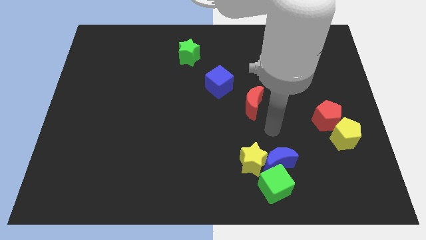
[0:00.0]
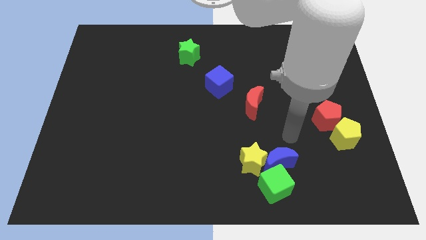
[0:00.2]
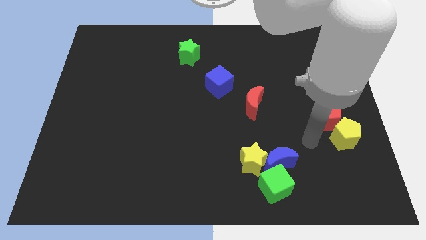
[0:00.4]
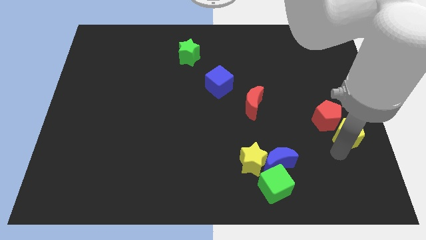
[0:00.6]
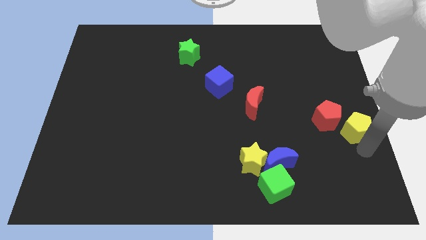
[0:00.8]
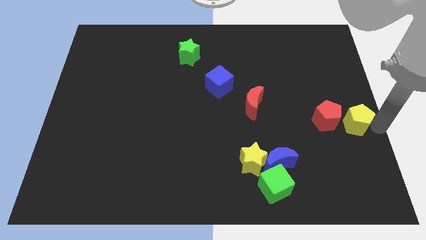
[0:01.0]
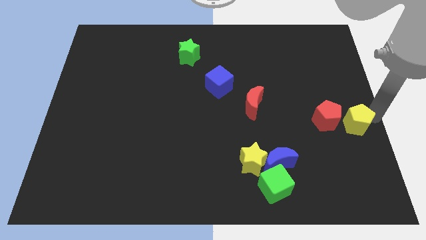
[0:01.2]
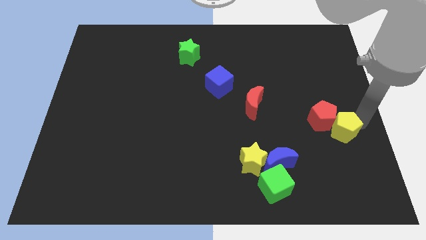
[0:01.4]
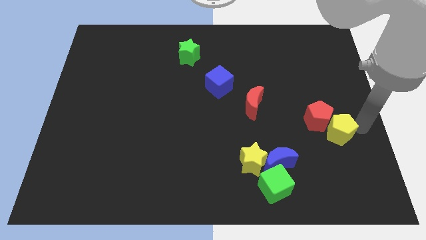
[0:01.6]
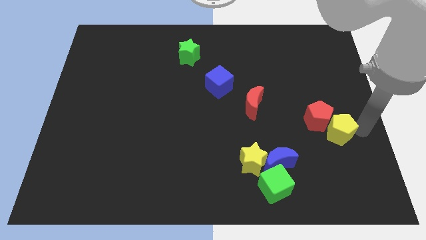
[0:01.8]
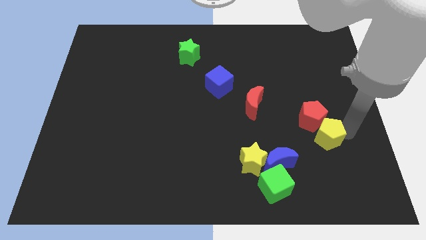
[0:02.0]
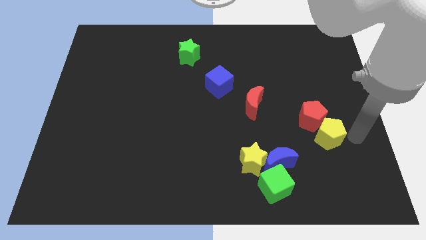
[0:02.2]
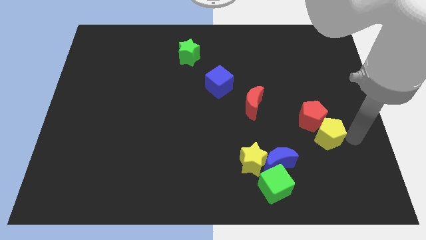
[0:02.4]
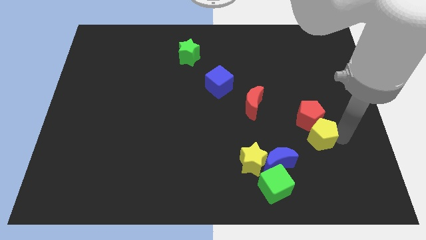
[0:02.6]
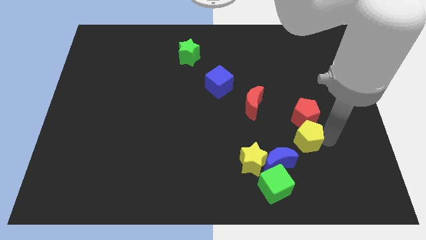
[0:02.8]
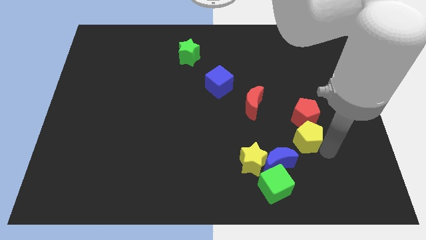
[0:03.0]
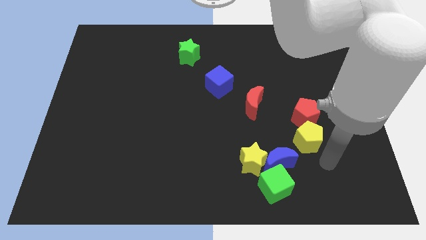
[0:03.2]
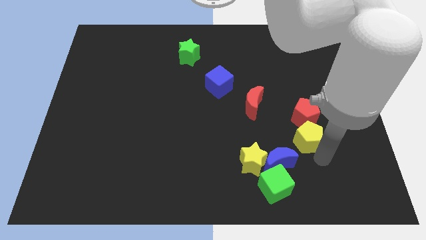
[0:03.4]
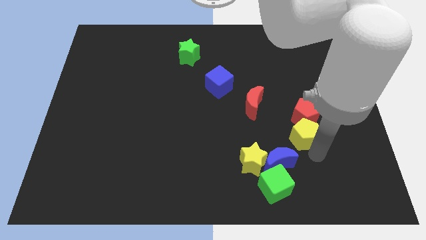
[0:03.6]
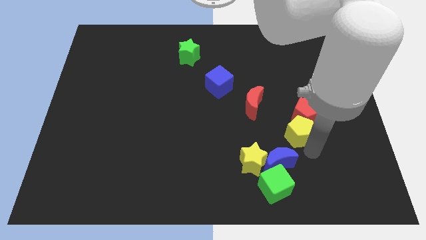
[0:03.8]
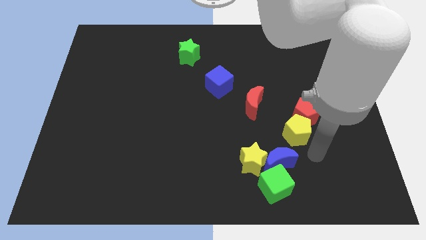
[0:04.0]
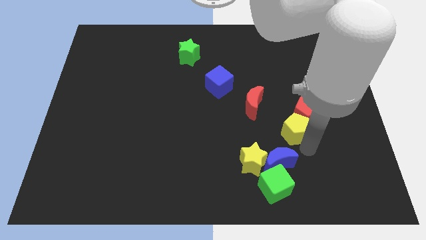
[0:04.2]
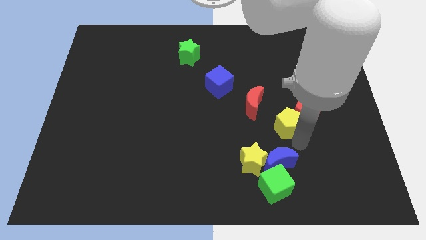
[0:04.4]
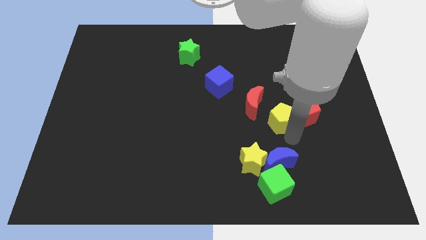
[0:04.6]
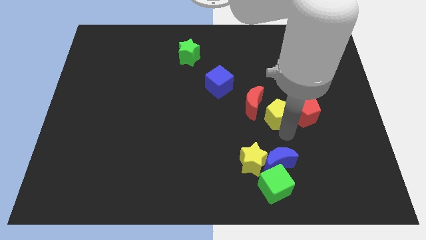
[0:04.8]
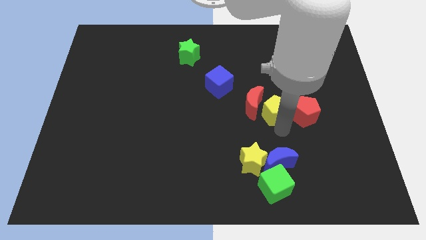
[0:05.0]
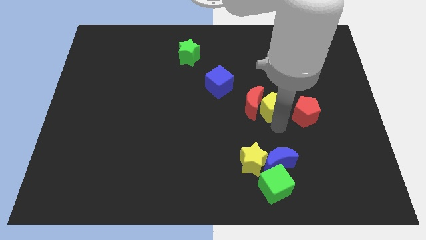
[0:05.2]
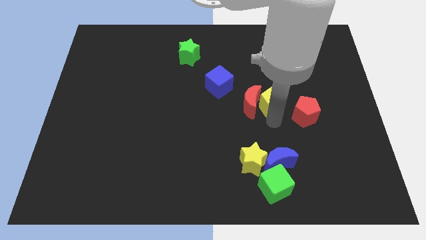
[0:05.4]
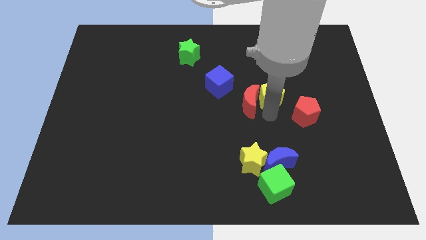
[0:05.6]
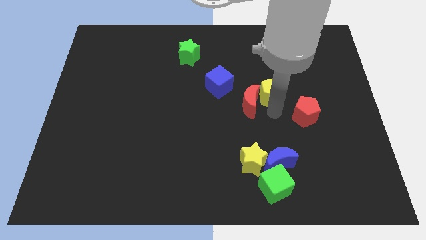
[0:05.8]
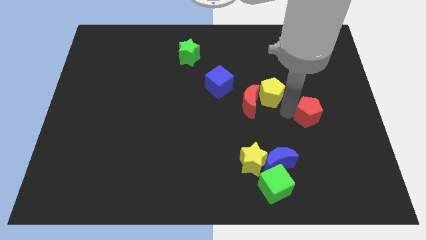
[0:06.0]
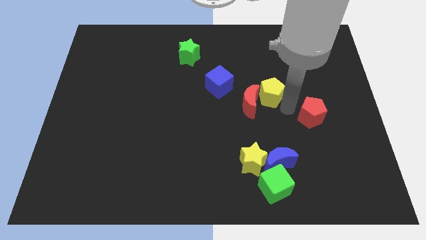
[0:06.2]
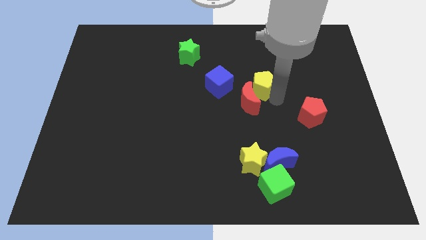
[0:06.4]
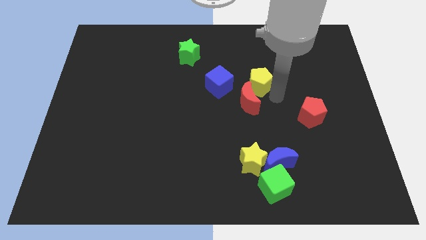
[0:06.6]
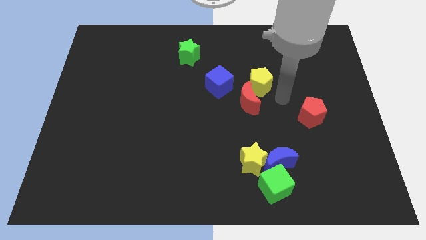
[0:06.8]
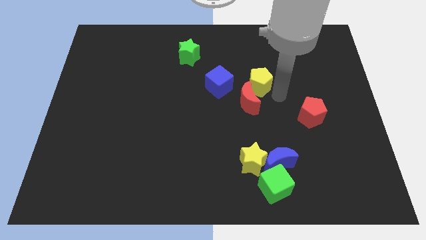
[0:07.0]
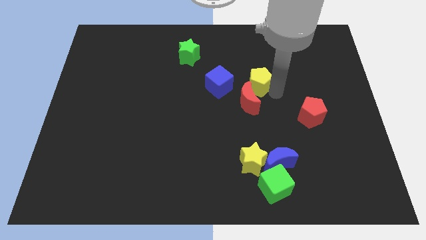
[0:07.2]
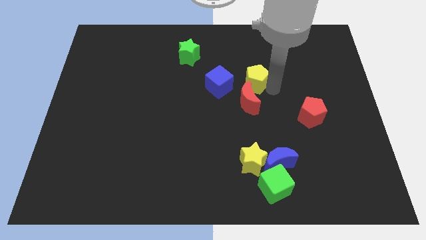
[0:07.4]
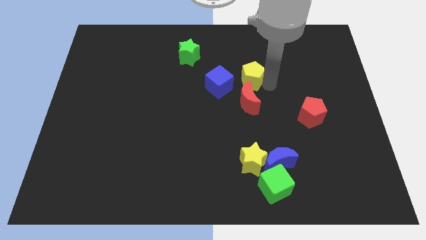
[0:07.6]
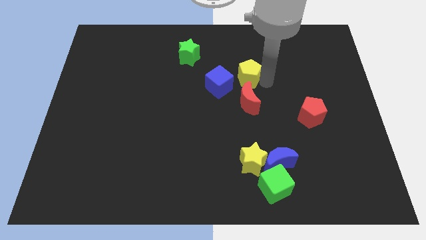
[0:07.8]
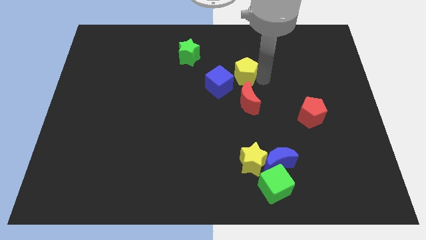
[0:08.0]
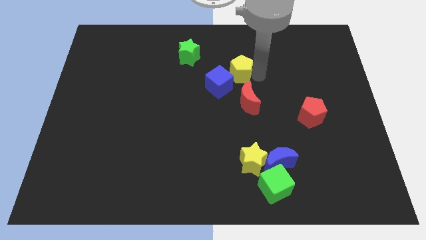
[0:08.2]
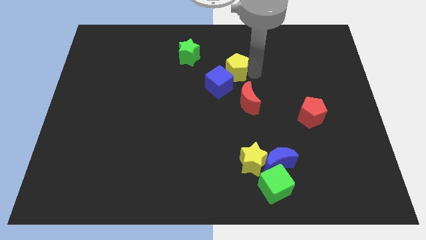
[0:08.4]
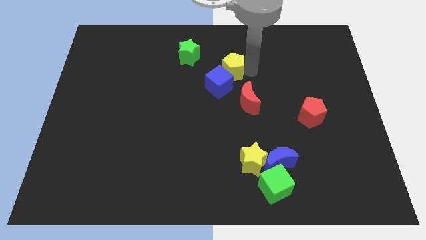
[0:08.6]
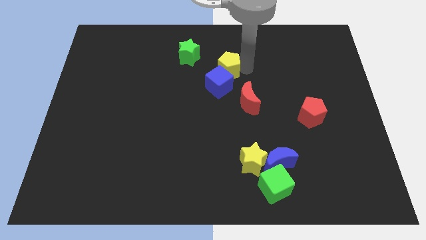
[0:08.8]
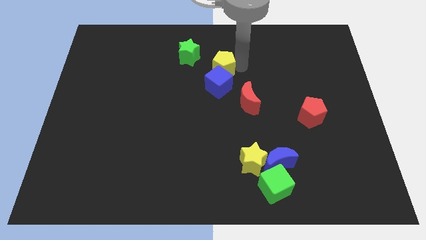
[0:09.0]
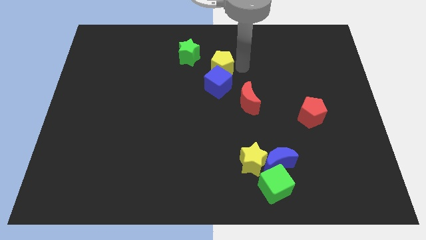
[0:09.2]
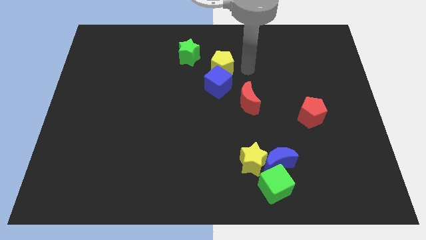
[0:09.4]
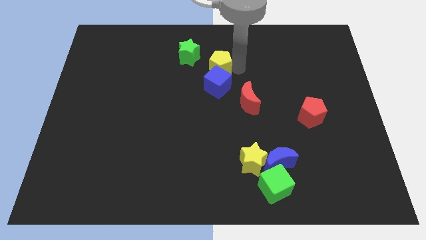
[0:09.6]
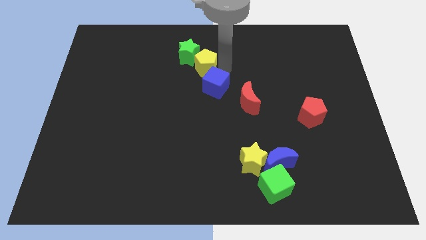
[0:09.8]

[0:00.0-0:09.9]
push the yellow pentagon towards the green star

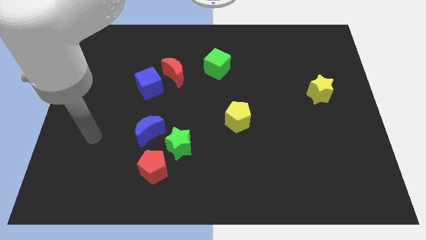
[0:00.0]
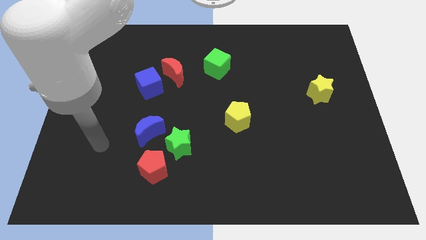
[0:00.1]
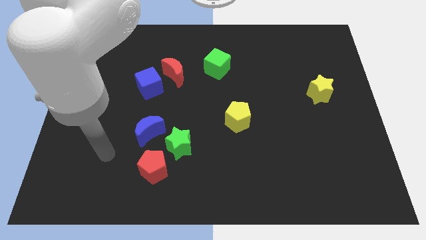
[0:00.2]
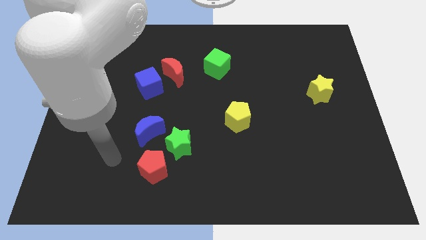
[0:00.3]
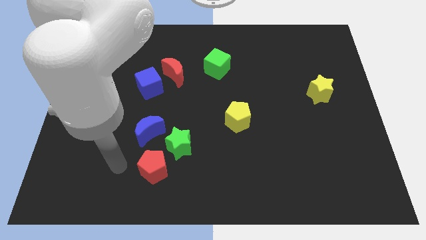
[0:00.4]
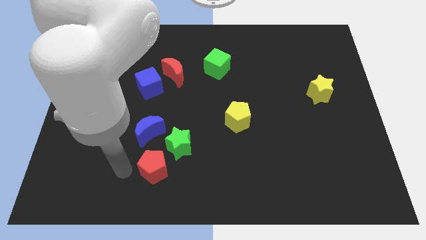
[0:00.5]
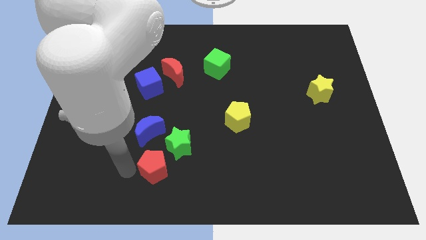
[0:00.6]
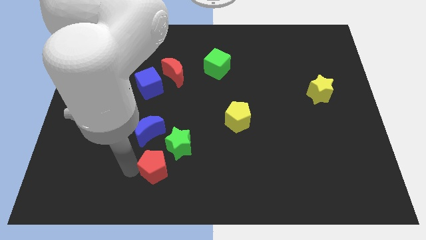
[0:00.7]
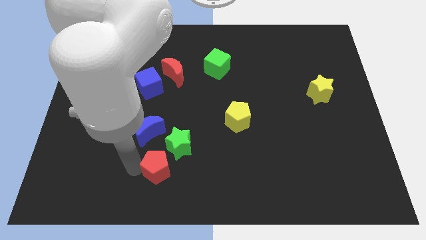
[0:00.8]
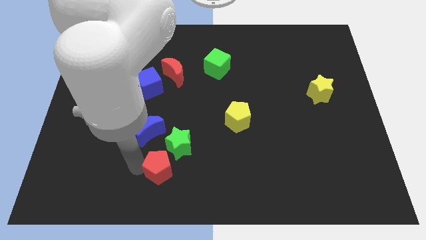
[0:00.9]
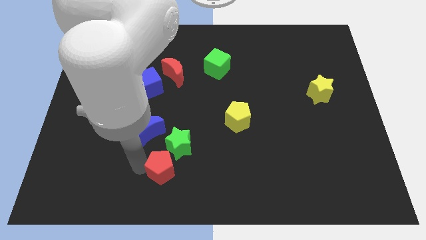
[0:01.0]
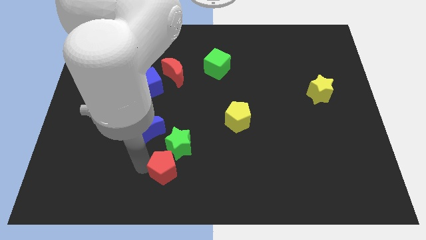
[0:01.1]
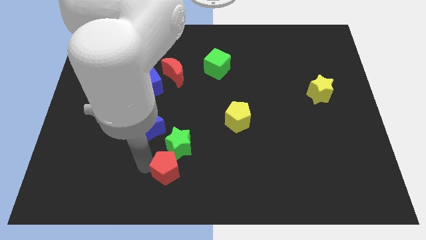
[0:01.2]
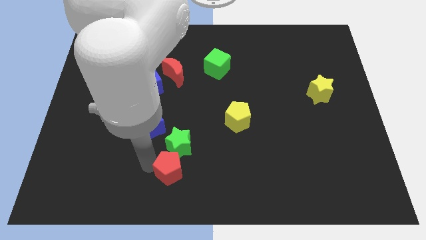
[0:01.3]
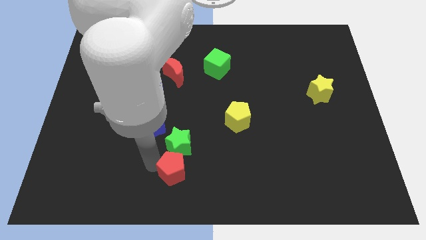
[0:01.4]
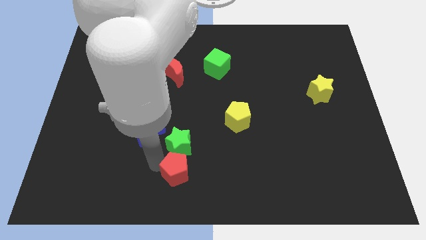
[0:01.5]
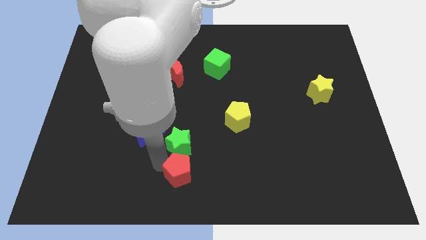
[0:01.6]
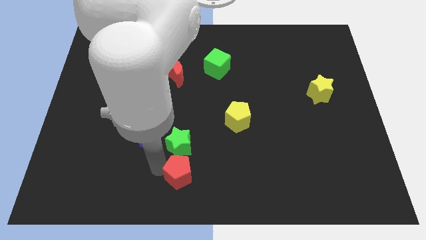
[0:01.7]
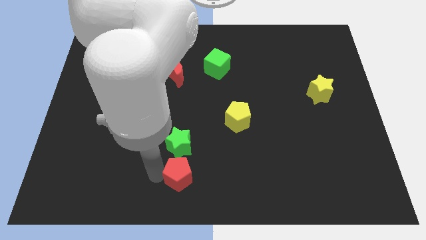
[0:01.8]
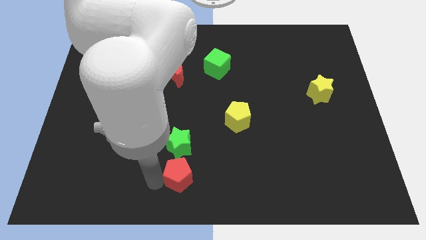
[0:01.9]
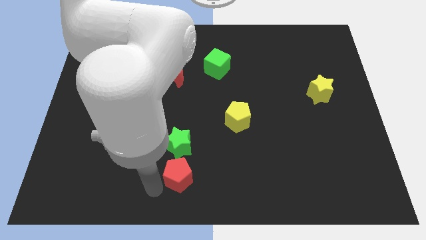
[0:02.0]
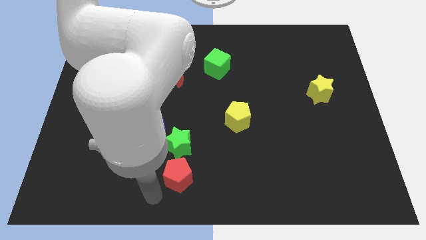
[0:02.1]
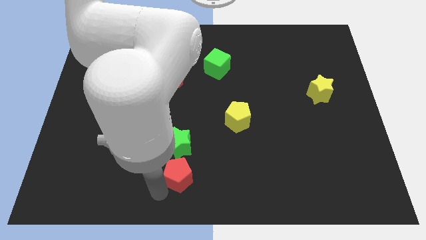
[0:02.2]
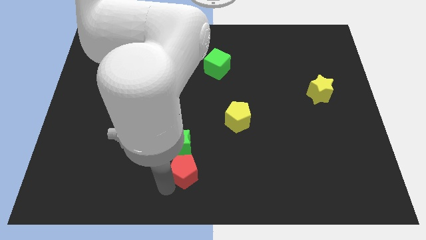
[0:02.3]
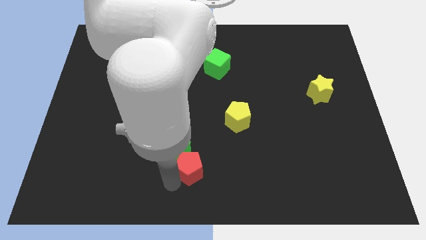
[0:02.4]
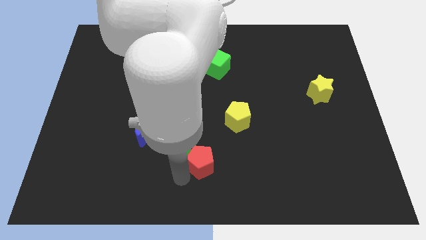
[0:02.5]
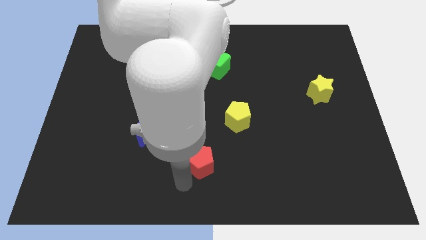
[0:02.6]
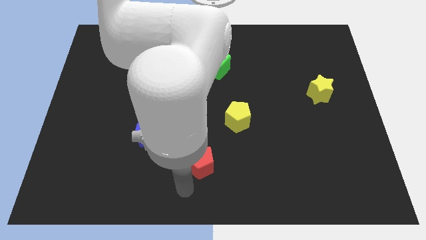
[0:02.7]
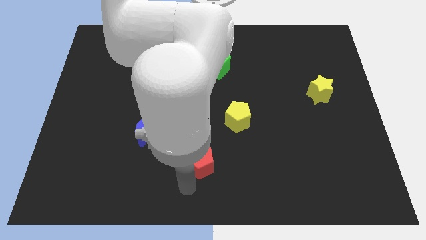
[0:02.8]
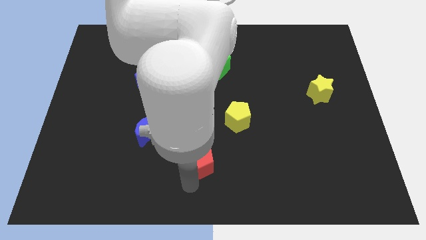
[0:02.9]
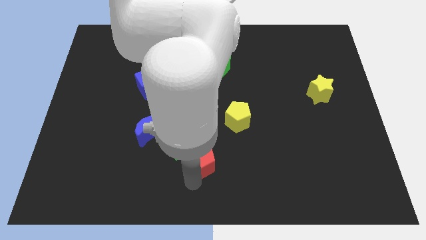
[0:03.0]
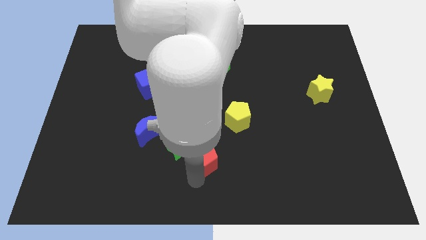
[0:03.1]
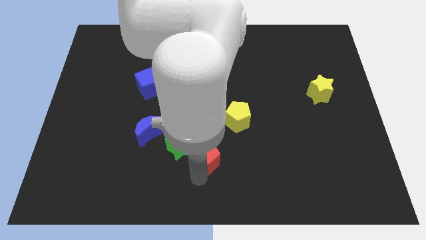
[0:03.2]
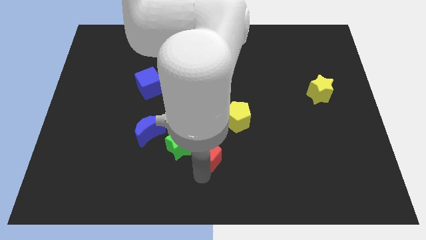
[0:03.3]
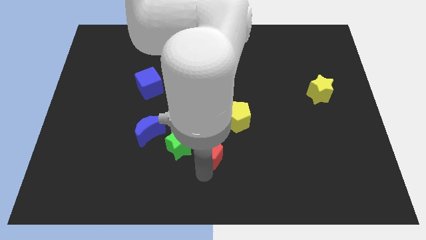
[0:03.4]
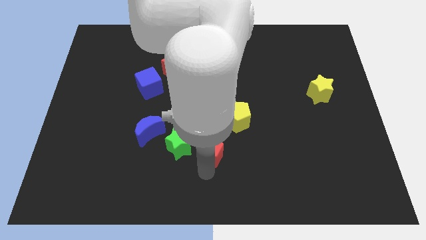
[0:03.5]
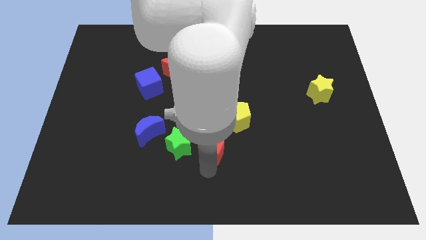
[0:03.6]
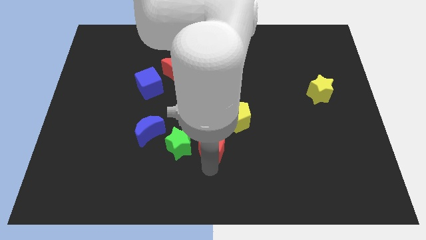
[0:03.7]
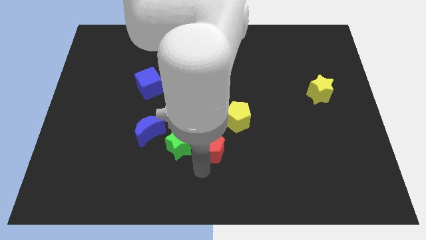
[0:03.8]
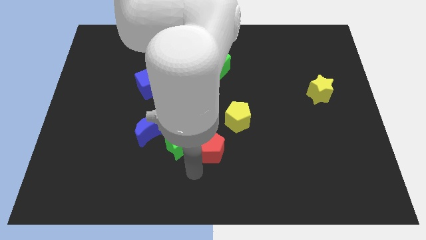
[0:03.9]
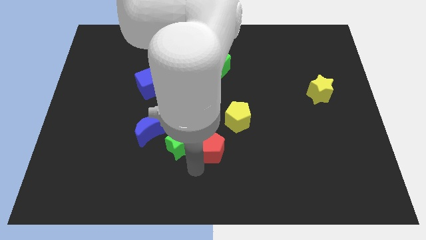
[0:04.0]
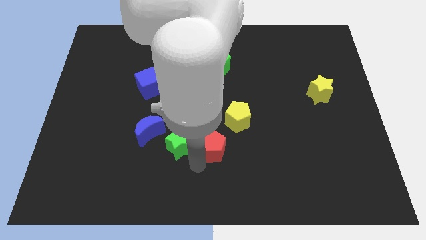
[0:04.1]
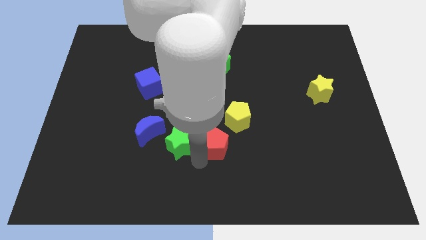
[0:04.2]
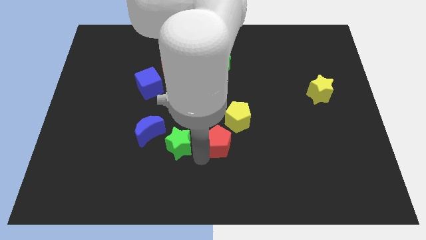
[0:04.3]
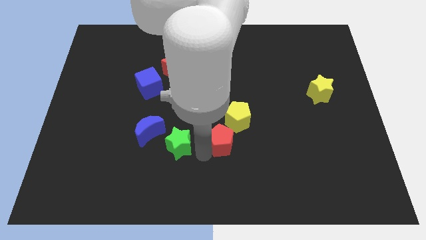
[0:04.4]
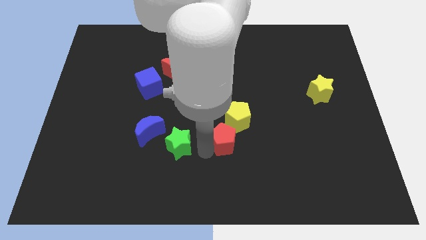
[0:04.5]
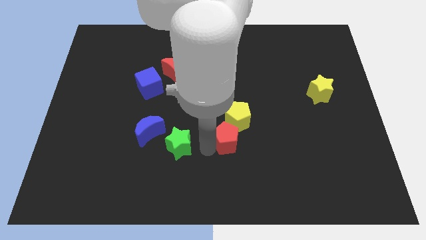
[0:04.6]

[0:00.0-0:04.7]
put the red pentagon to the yellow pentagon
